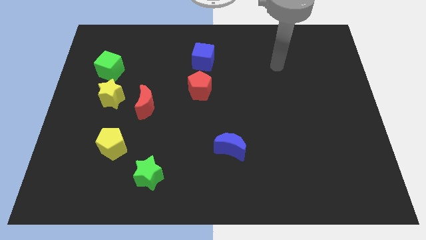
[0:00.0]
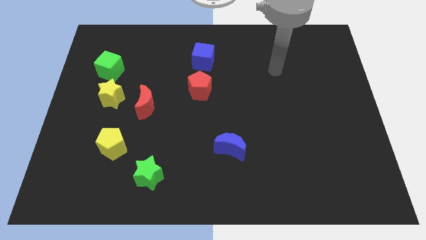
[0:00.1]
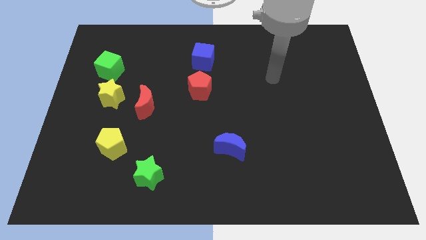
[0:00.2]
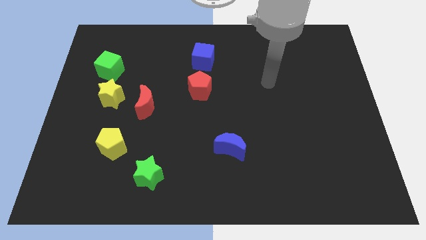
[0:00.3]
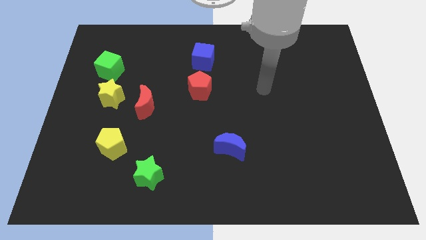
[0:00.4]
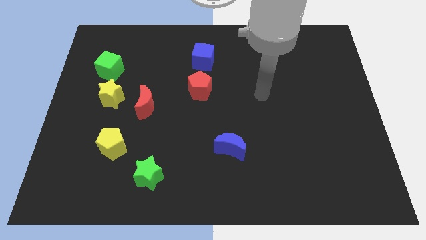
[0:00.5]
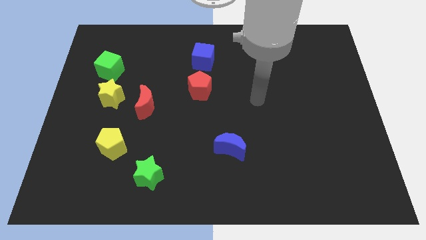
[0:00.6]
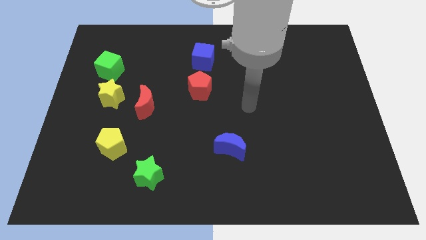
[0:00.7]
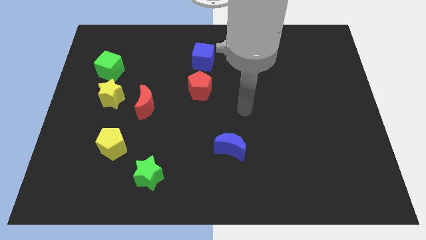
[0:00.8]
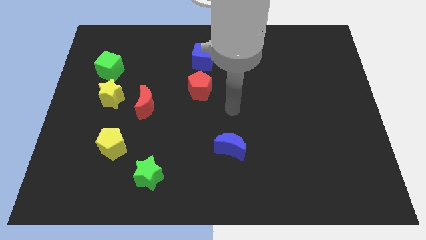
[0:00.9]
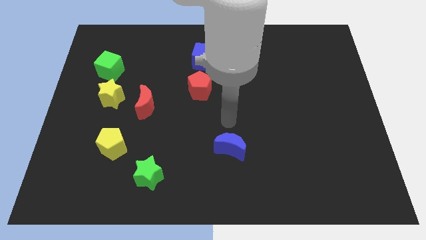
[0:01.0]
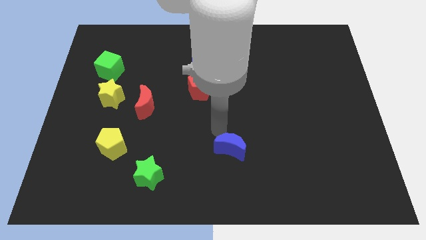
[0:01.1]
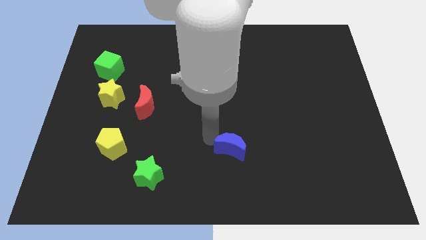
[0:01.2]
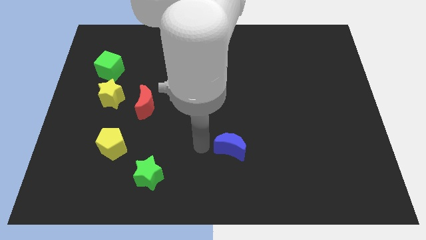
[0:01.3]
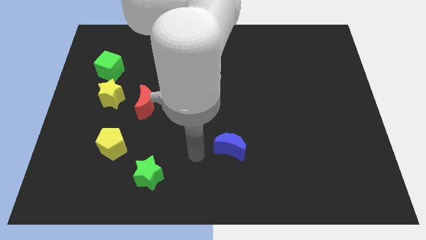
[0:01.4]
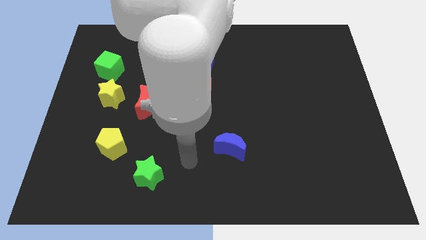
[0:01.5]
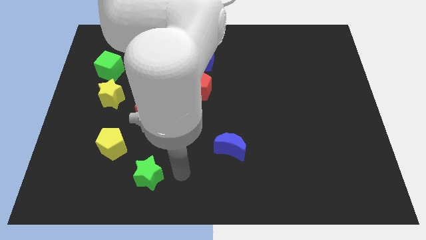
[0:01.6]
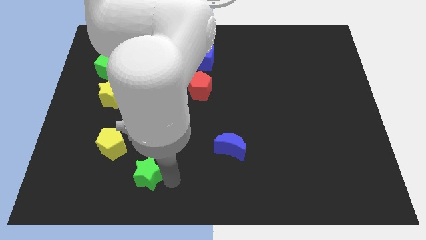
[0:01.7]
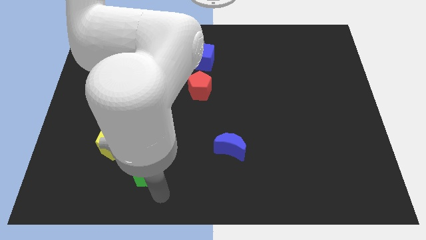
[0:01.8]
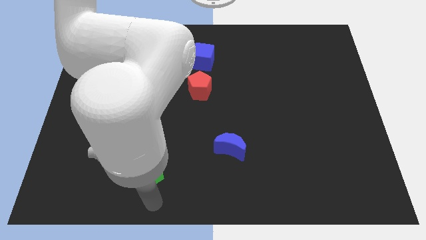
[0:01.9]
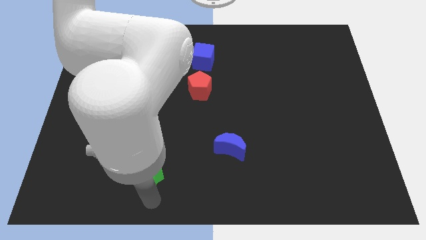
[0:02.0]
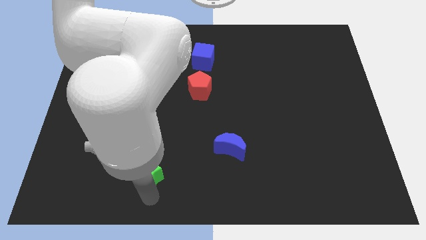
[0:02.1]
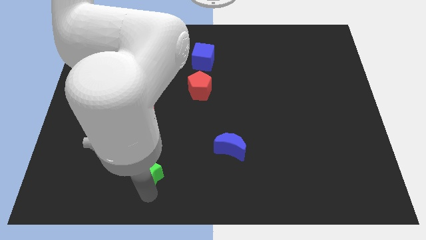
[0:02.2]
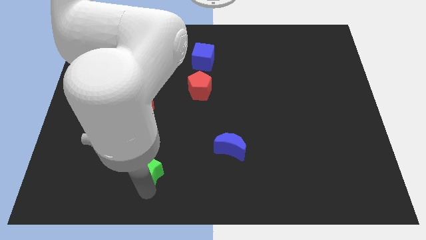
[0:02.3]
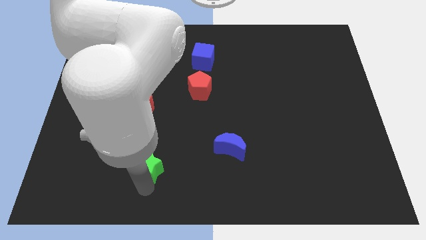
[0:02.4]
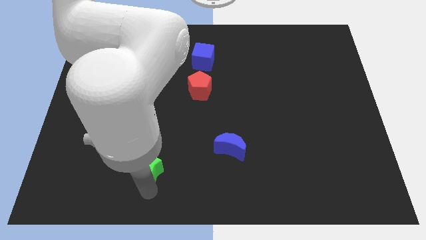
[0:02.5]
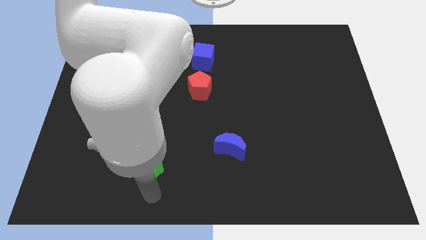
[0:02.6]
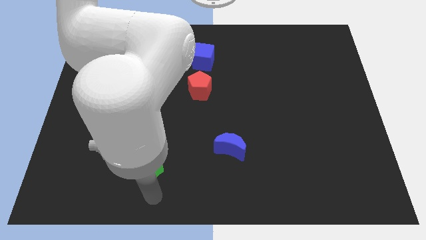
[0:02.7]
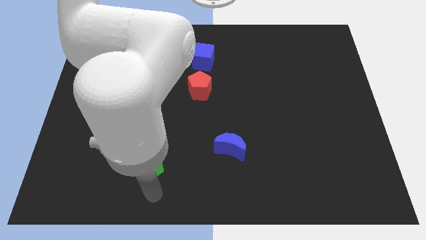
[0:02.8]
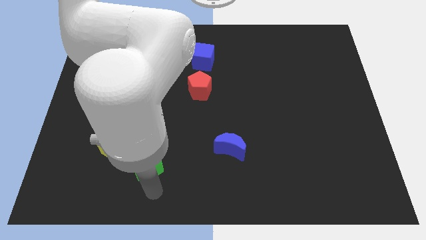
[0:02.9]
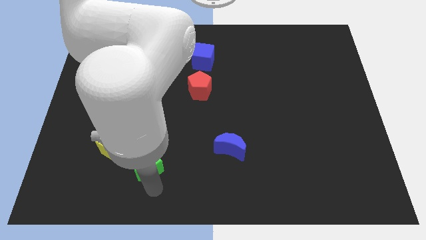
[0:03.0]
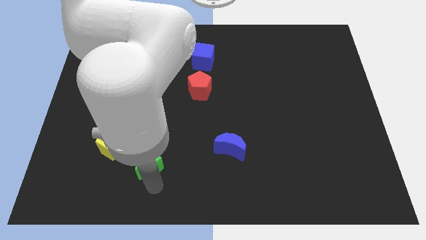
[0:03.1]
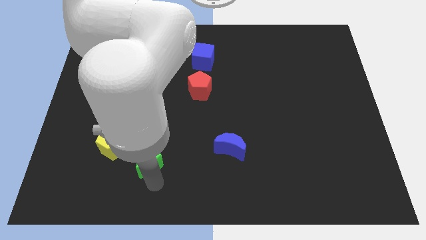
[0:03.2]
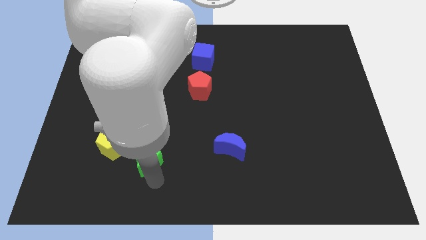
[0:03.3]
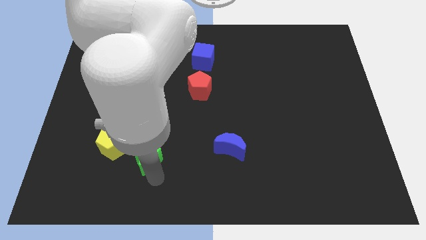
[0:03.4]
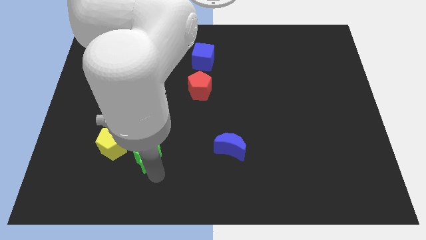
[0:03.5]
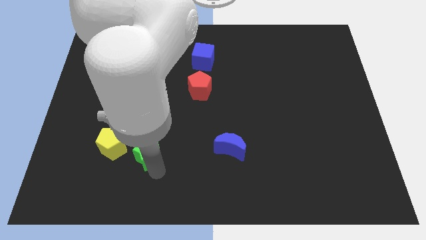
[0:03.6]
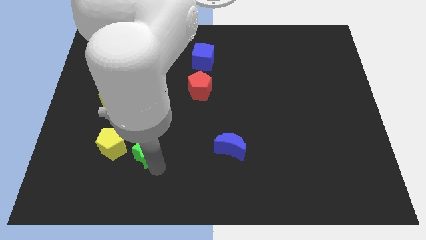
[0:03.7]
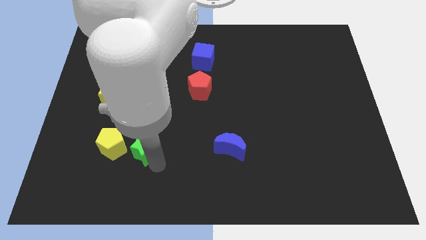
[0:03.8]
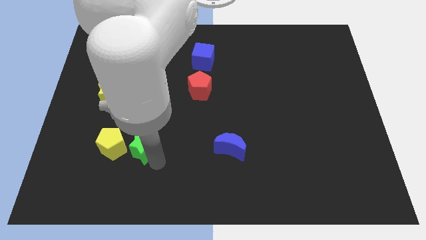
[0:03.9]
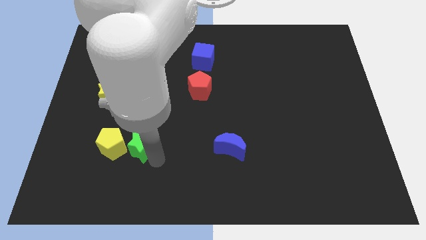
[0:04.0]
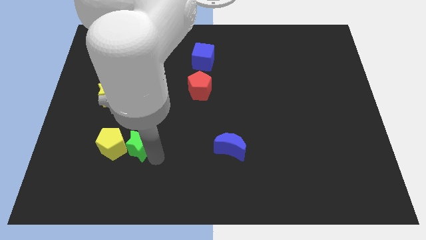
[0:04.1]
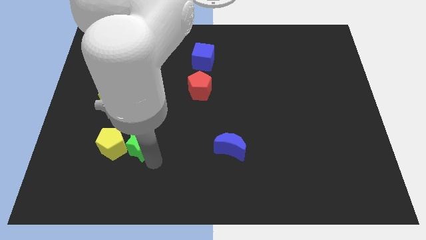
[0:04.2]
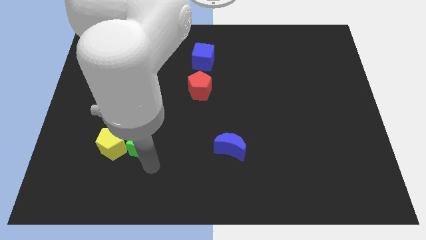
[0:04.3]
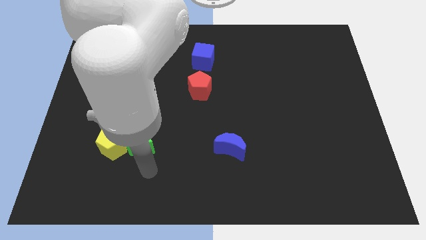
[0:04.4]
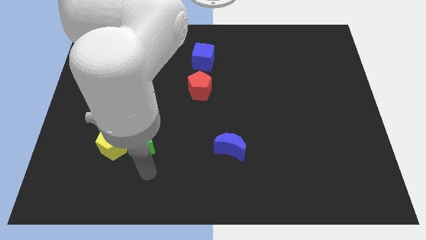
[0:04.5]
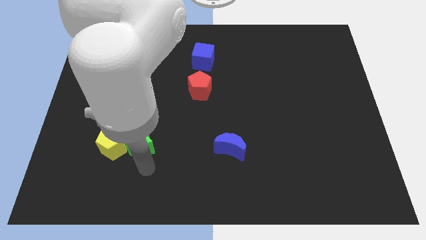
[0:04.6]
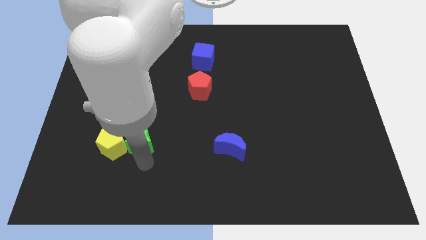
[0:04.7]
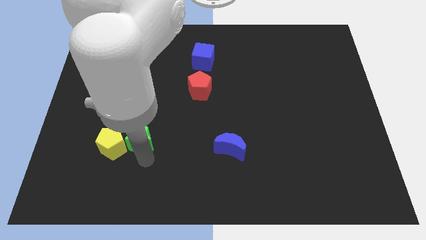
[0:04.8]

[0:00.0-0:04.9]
push the green star somewhat upwards and left

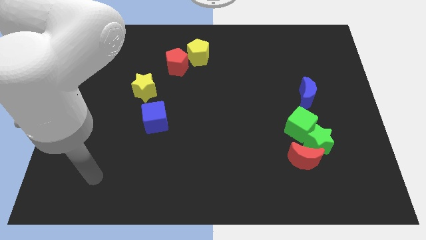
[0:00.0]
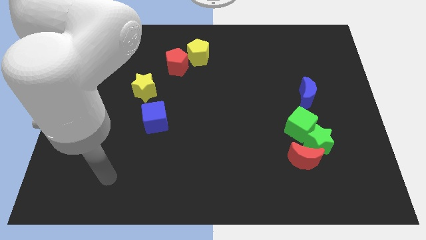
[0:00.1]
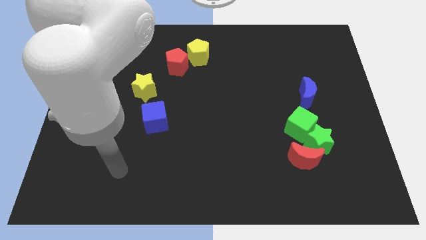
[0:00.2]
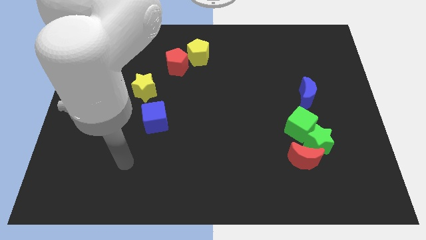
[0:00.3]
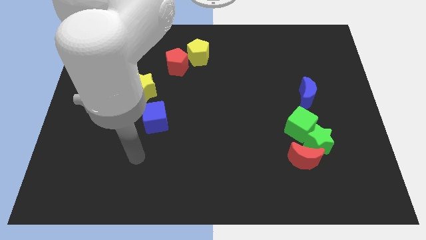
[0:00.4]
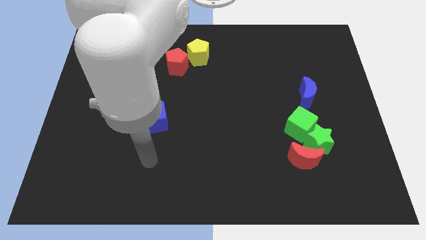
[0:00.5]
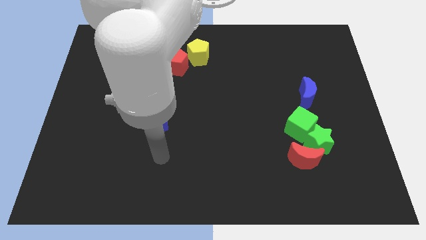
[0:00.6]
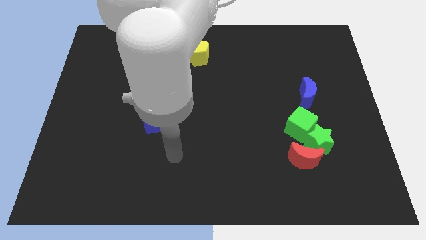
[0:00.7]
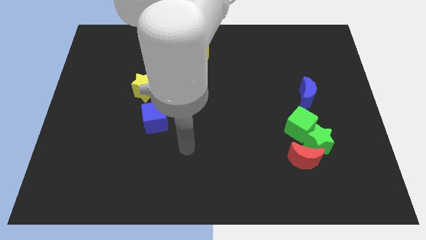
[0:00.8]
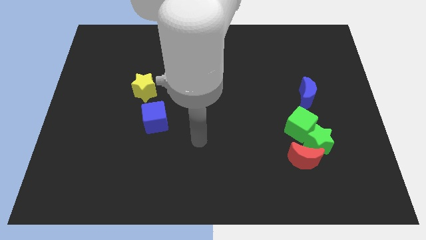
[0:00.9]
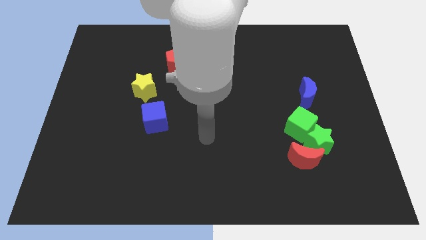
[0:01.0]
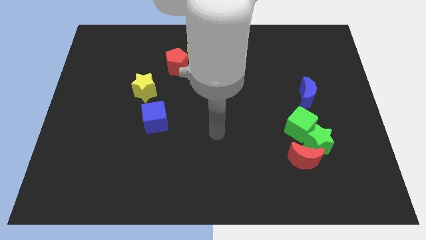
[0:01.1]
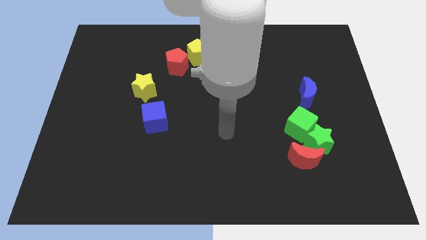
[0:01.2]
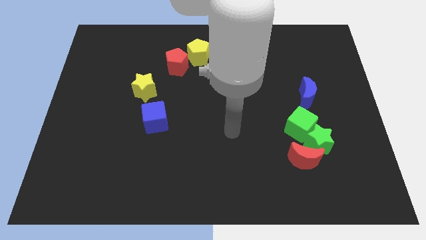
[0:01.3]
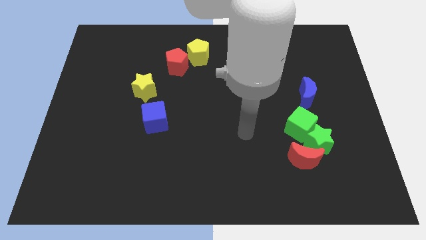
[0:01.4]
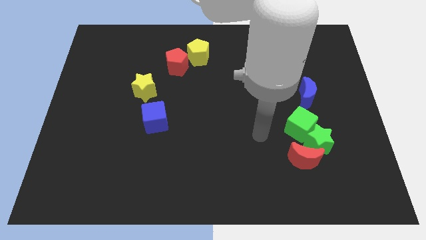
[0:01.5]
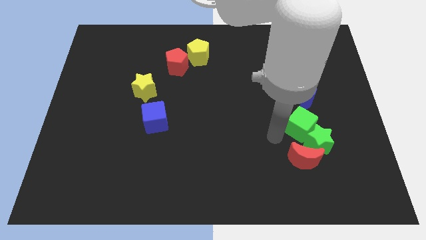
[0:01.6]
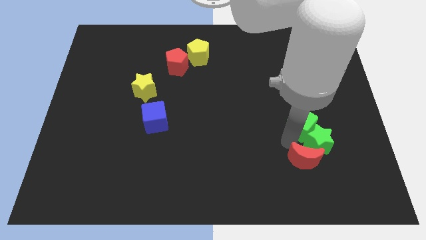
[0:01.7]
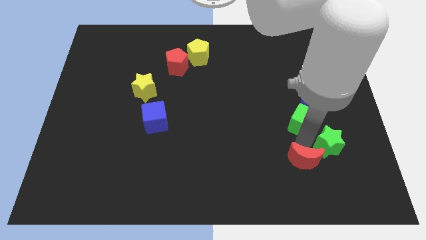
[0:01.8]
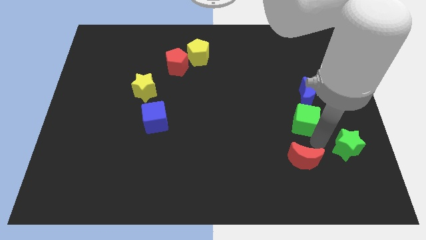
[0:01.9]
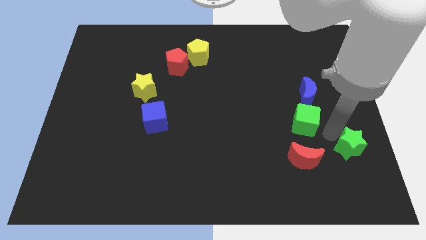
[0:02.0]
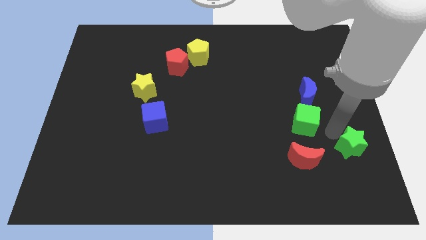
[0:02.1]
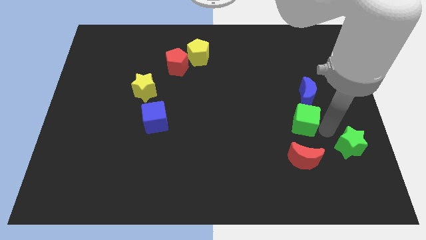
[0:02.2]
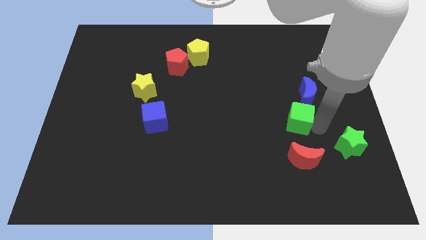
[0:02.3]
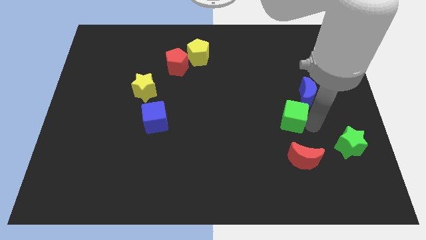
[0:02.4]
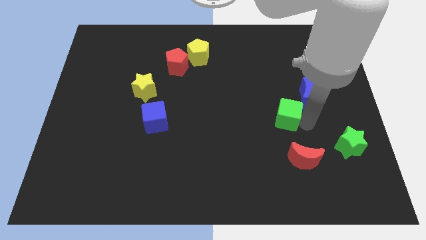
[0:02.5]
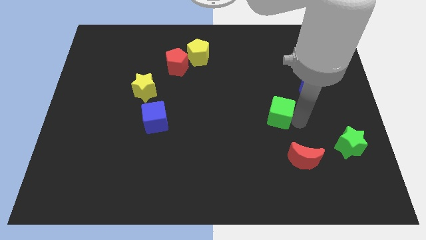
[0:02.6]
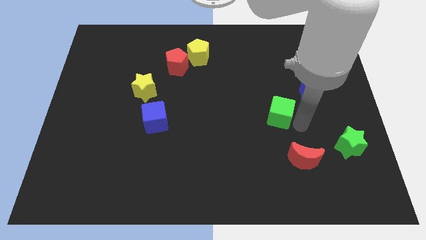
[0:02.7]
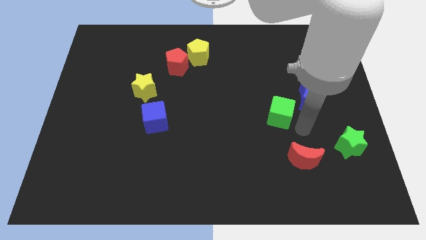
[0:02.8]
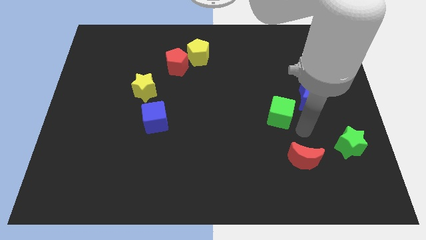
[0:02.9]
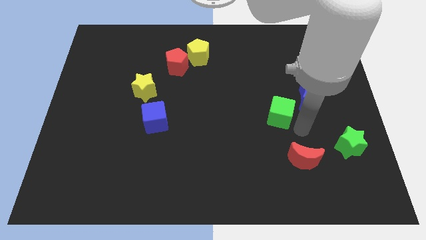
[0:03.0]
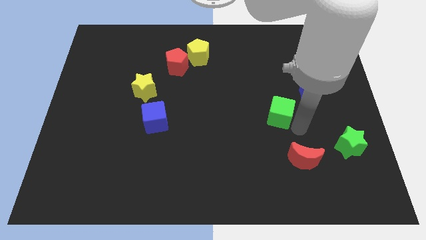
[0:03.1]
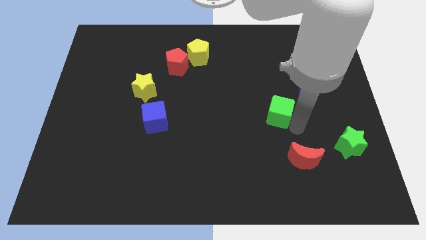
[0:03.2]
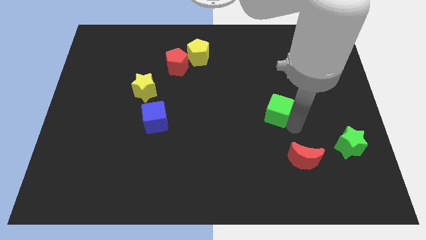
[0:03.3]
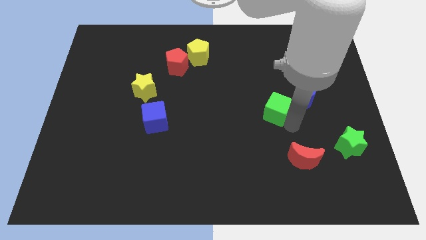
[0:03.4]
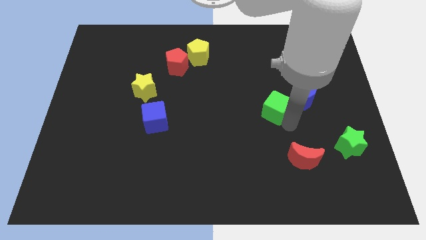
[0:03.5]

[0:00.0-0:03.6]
slide the green cube diagonally up and to the left a little
